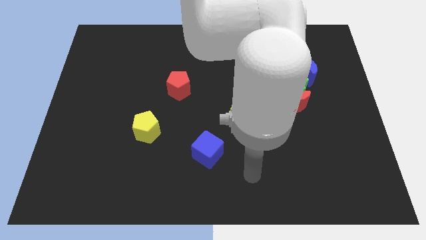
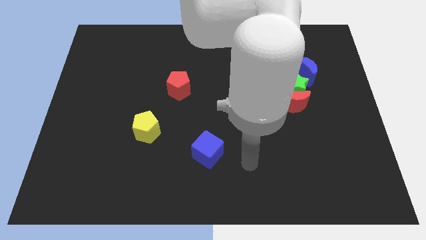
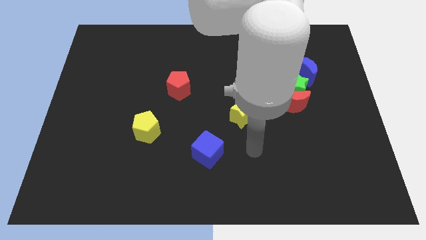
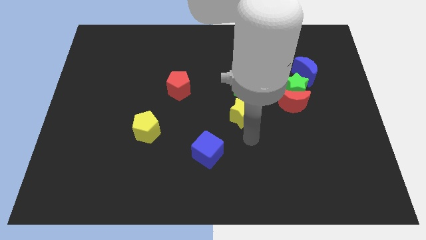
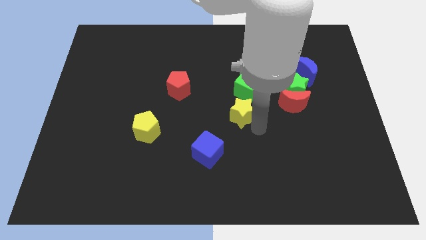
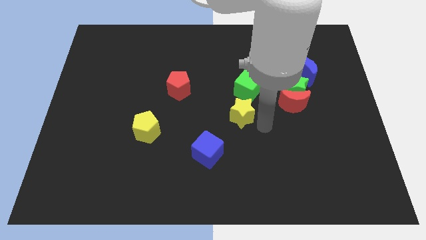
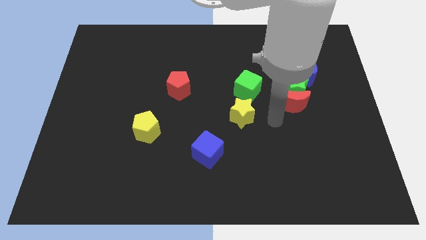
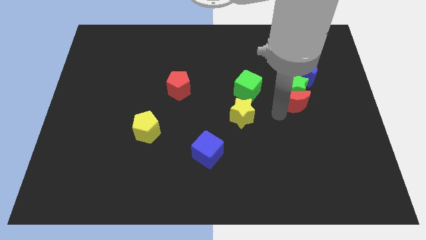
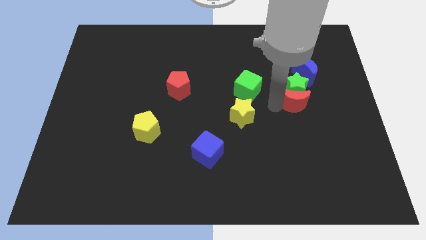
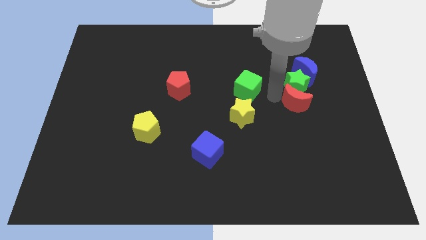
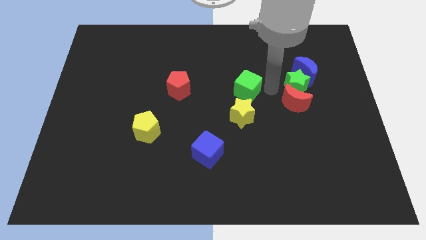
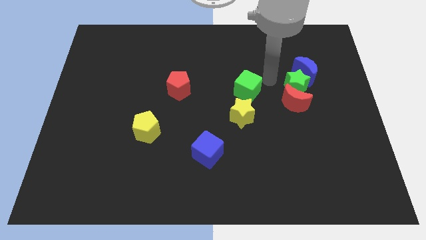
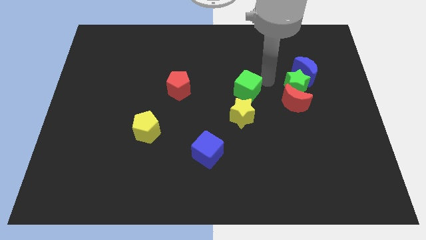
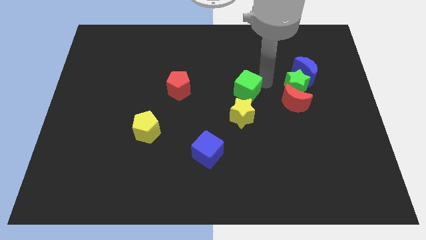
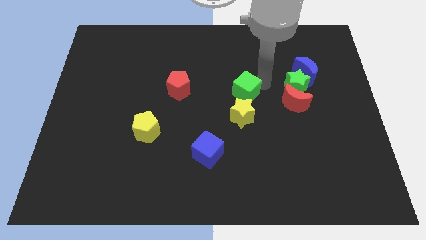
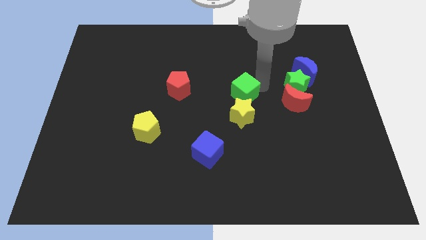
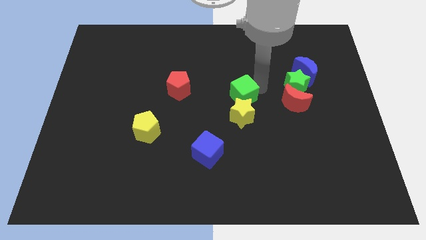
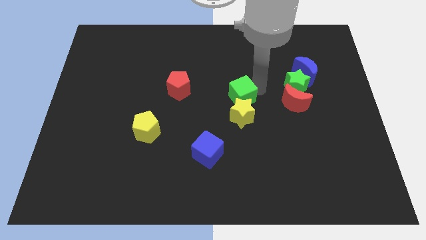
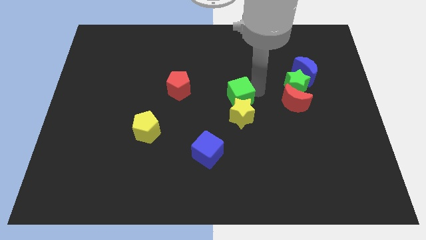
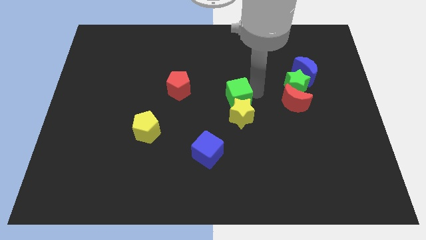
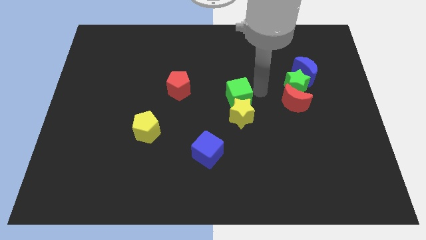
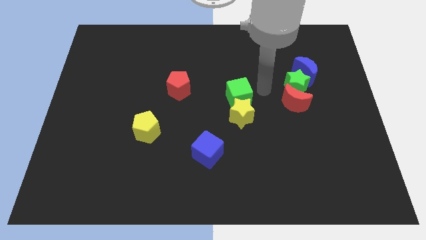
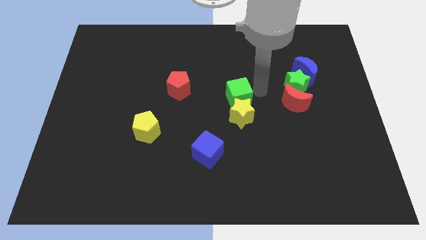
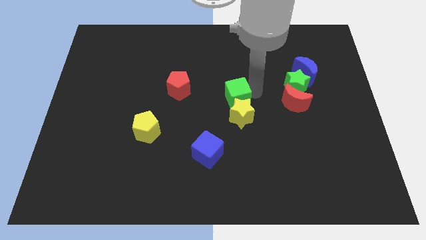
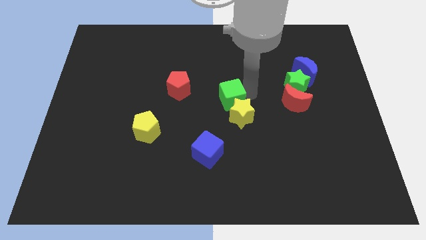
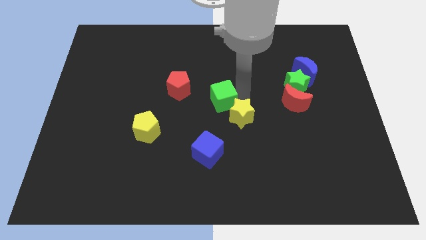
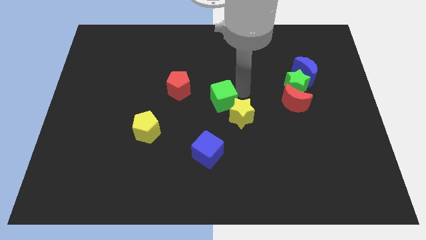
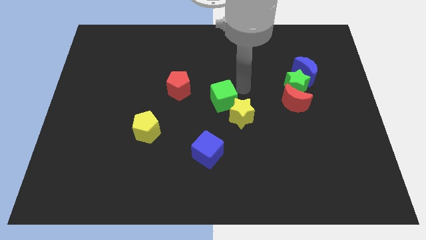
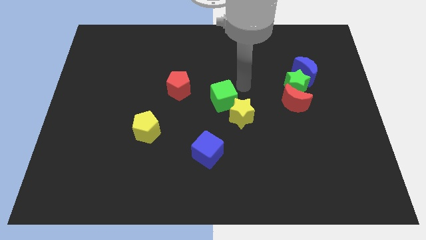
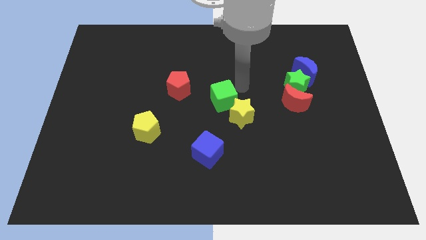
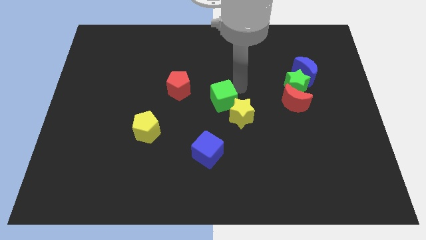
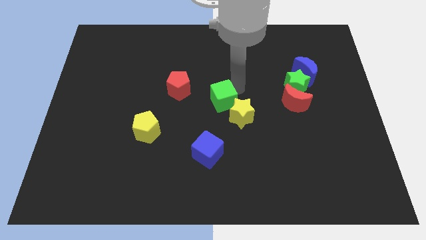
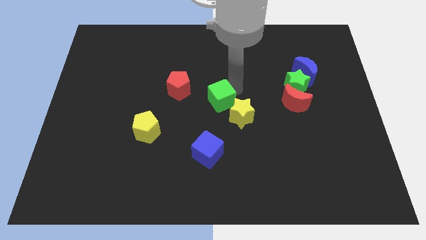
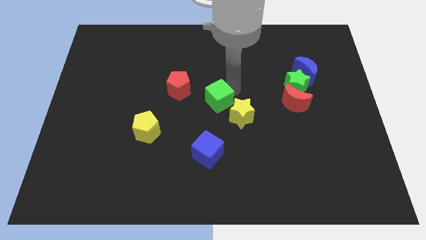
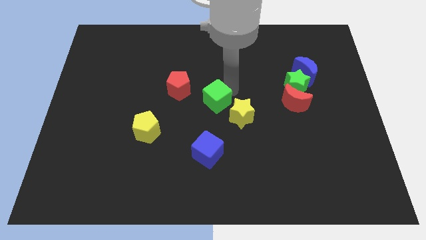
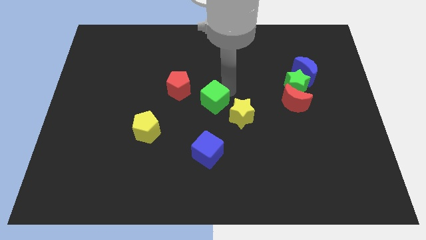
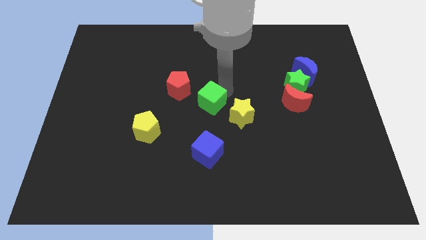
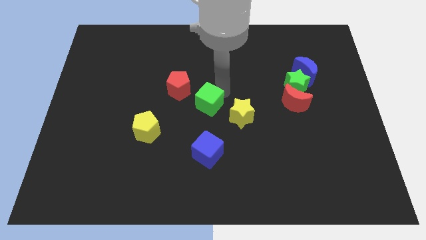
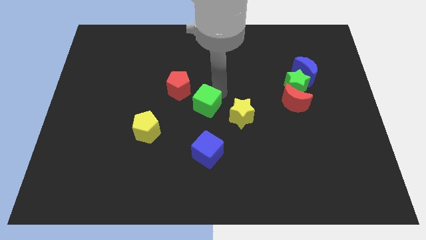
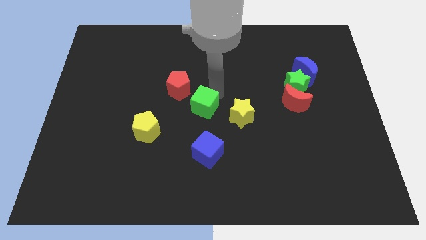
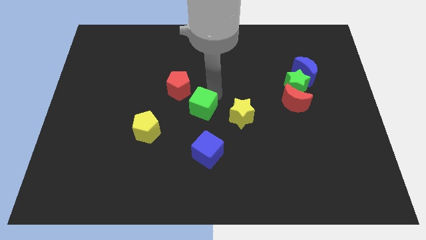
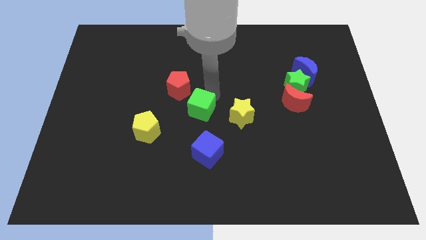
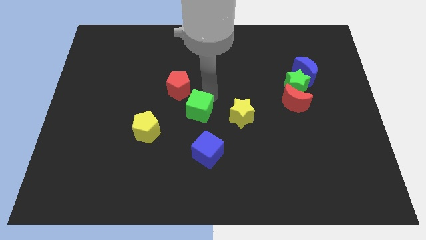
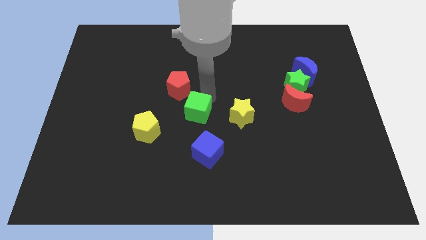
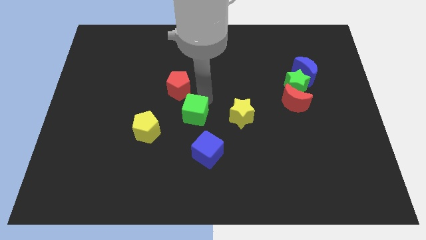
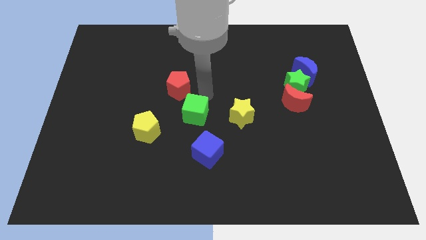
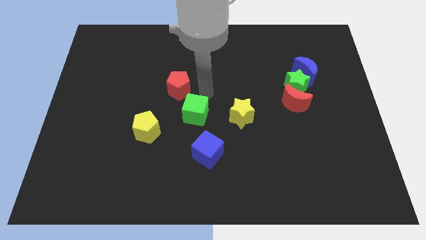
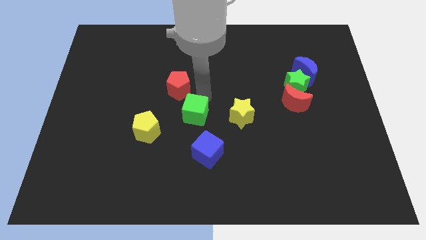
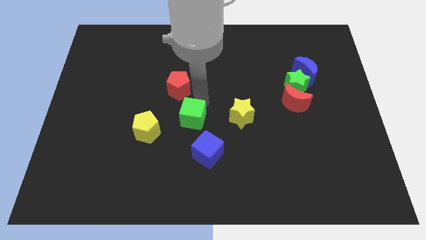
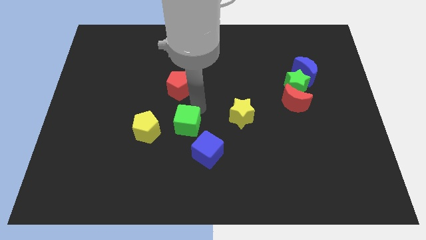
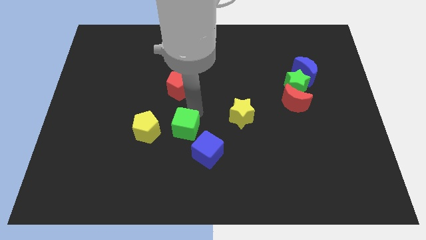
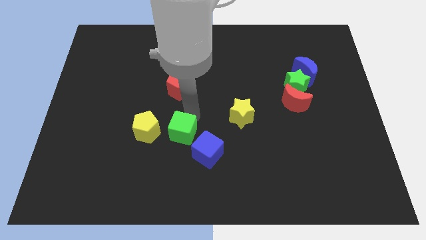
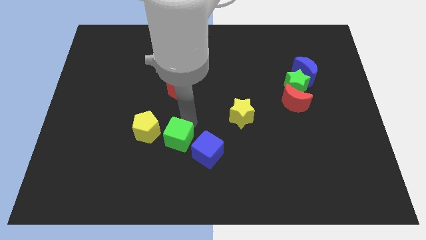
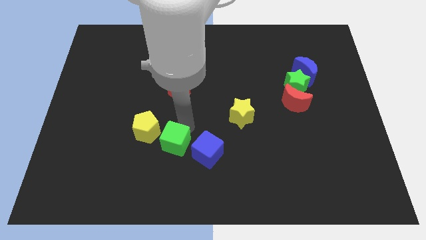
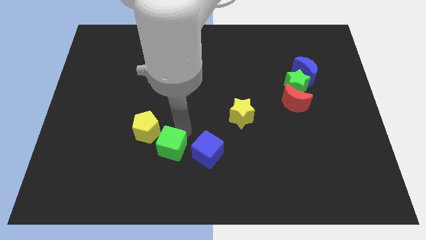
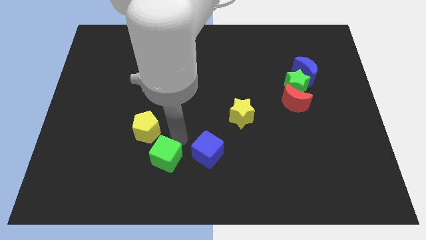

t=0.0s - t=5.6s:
move the green cube to the bottom of the yellow pentagon

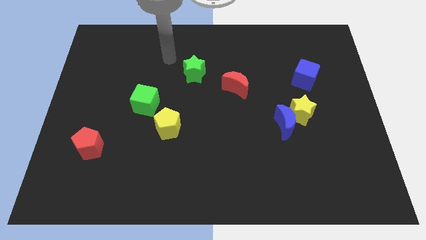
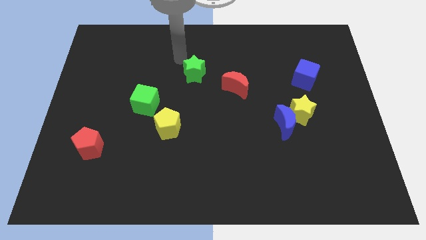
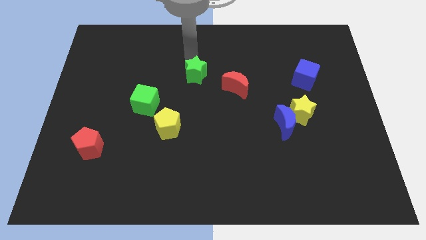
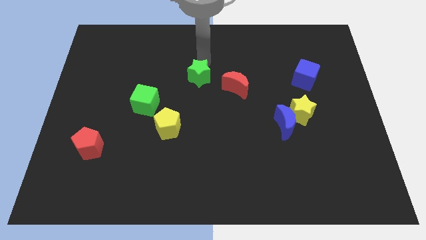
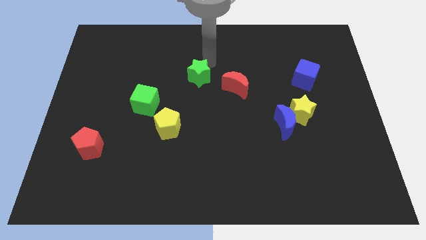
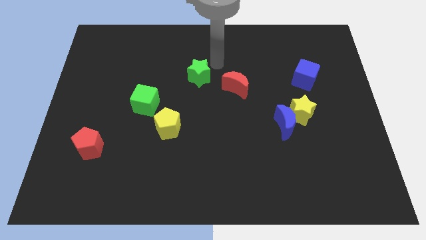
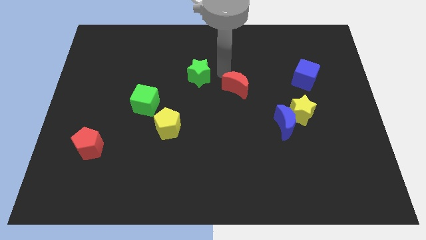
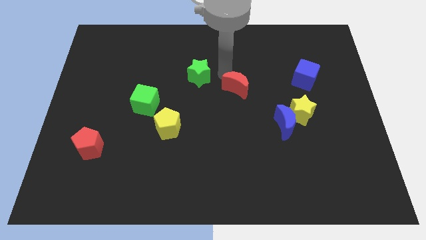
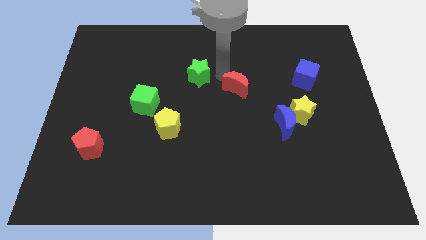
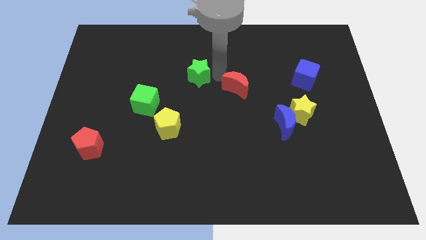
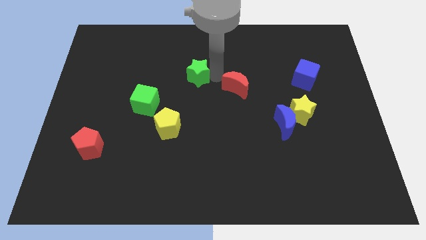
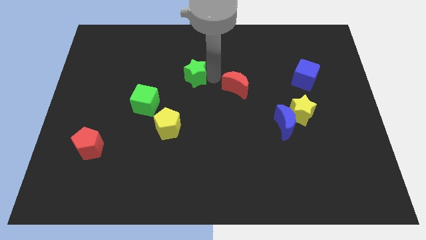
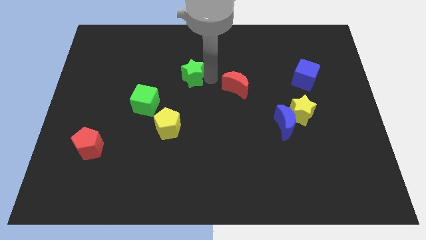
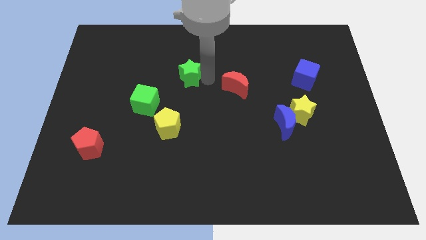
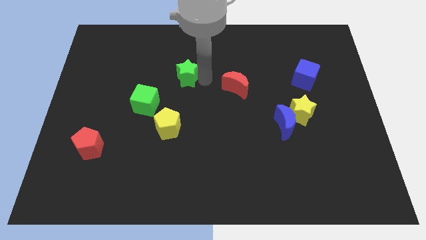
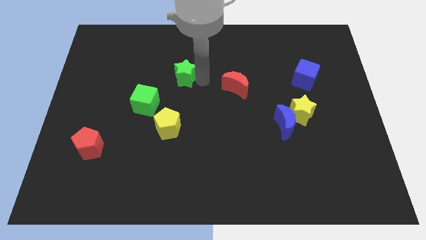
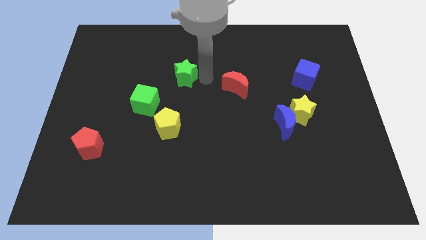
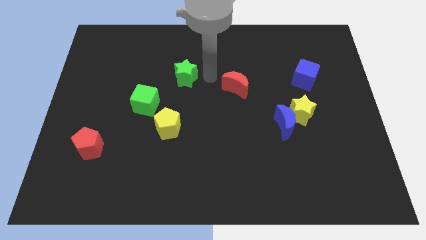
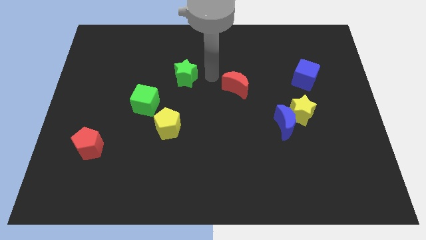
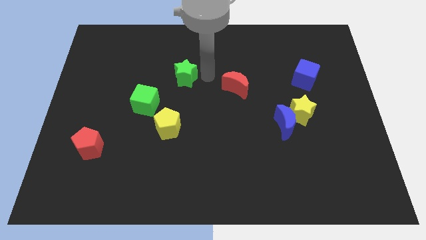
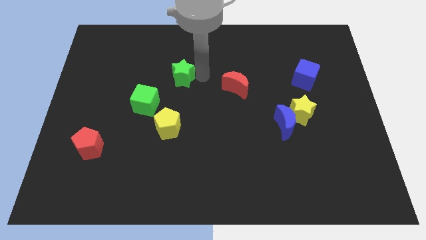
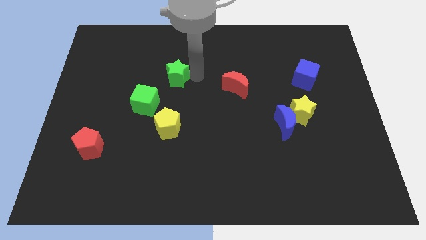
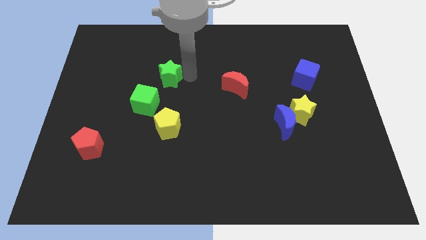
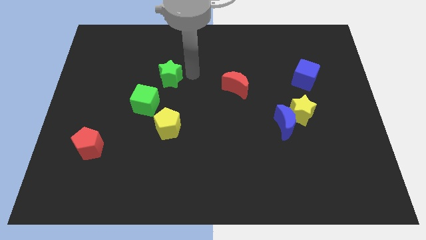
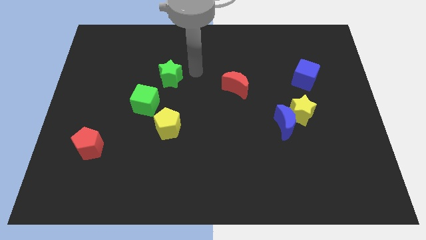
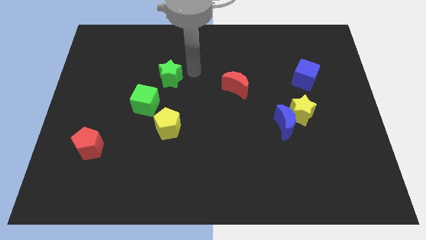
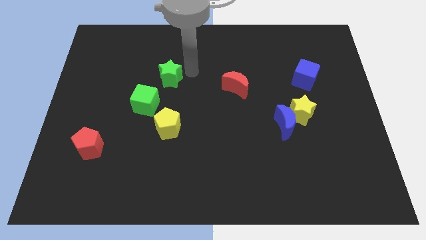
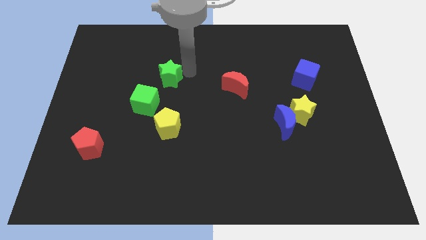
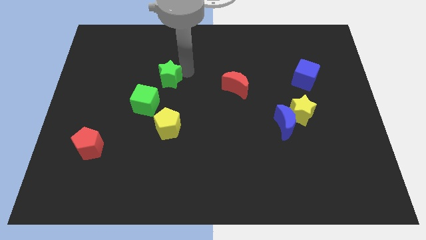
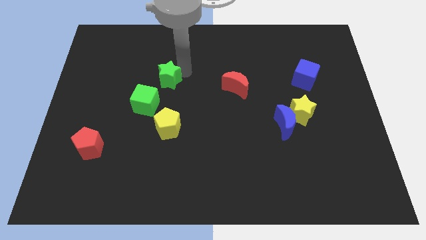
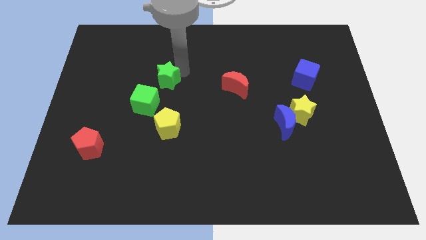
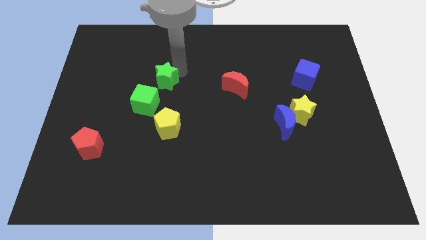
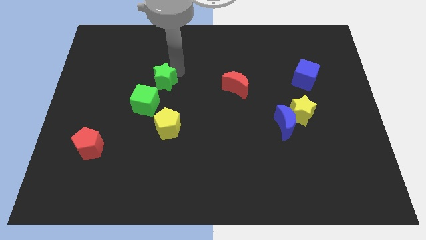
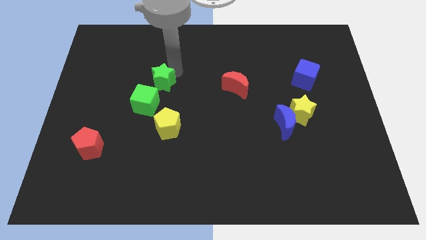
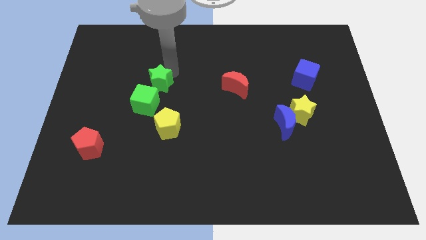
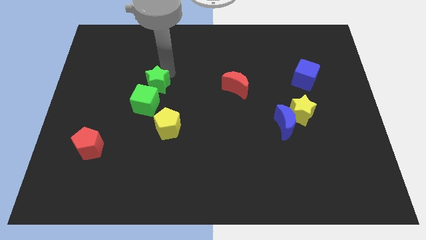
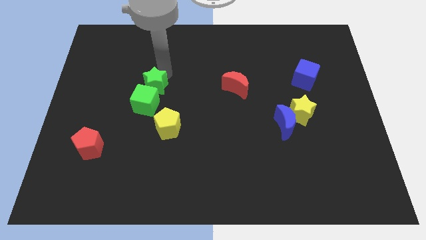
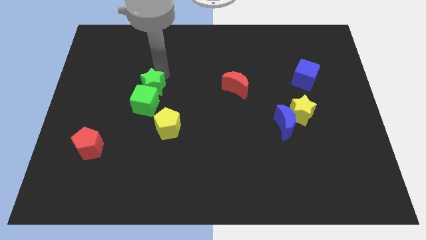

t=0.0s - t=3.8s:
put the green star to the top left side of the green cube
